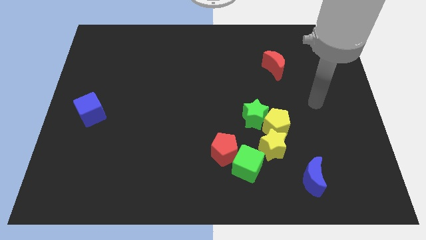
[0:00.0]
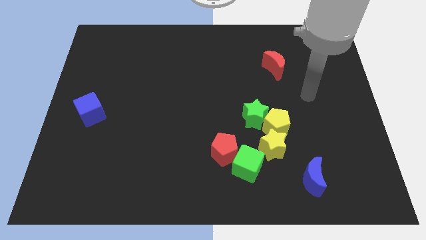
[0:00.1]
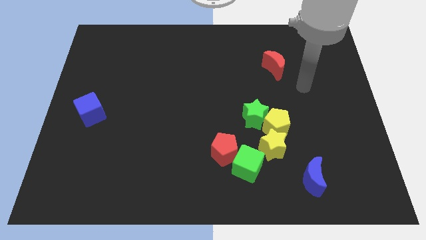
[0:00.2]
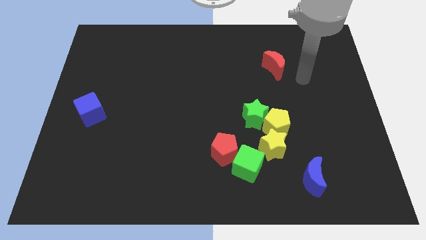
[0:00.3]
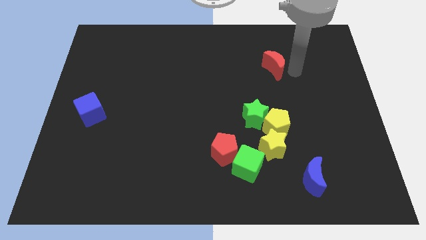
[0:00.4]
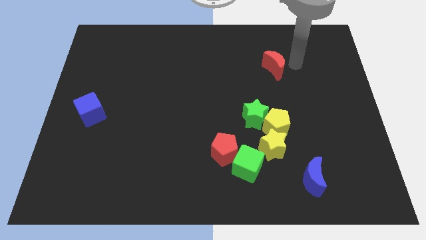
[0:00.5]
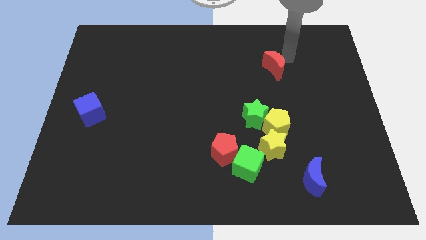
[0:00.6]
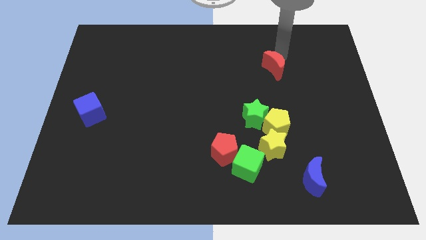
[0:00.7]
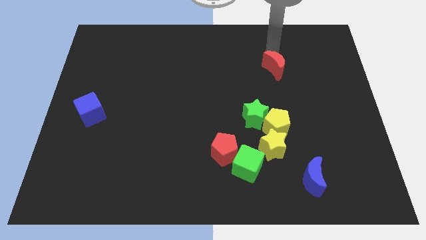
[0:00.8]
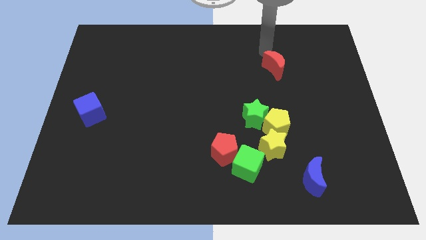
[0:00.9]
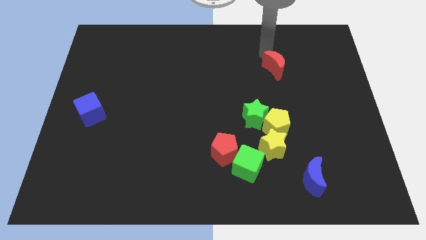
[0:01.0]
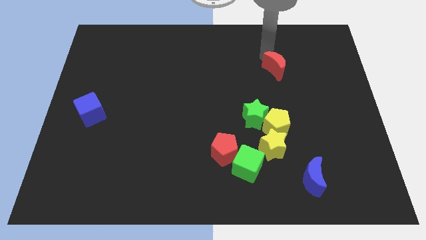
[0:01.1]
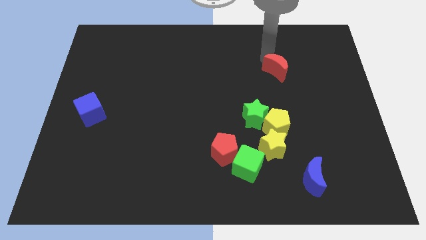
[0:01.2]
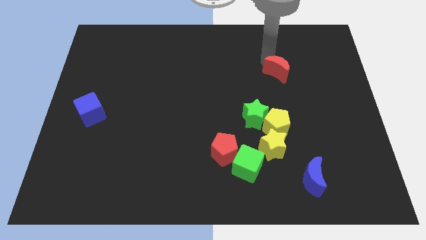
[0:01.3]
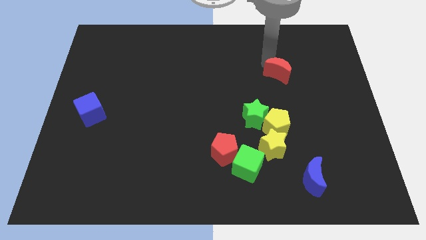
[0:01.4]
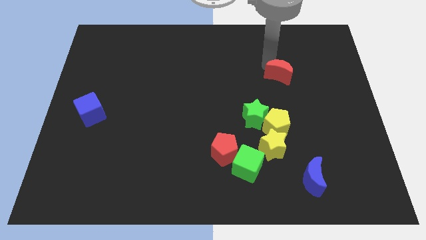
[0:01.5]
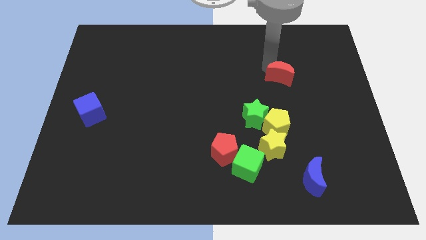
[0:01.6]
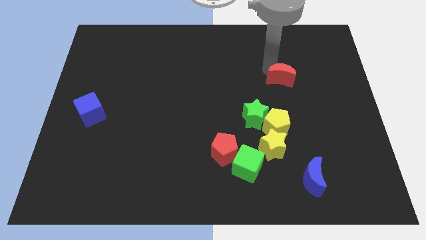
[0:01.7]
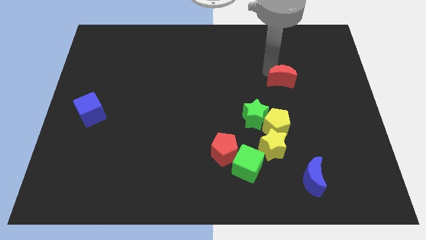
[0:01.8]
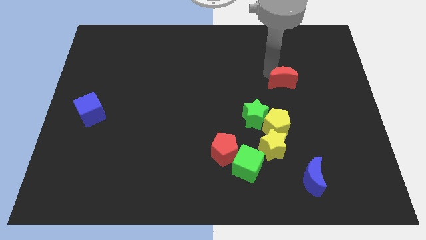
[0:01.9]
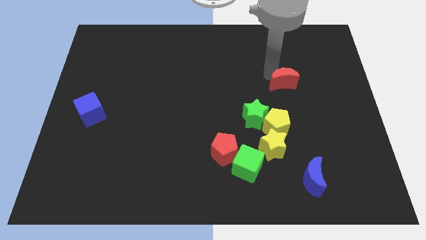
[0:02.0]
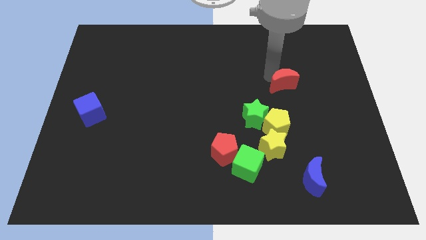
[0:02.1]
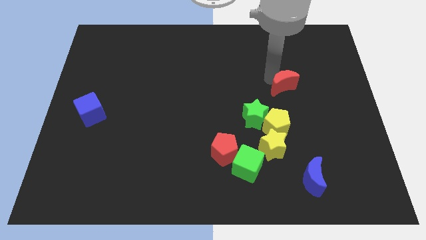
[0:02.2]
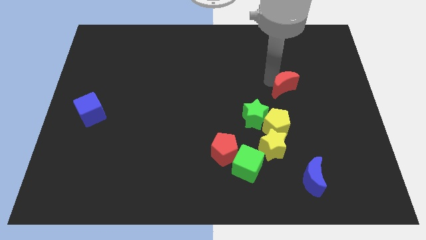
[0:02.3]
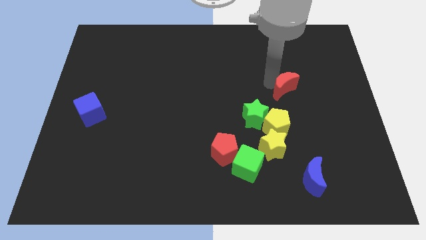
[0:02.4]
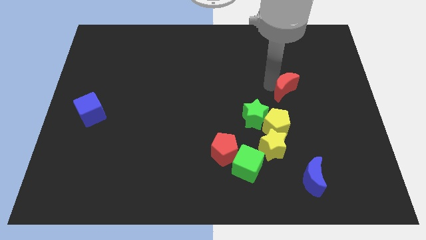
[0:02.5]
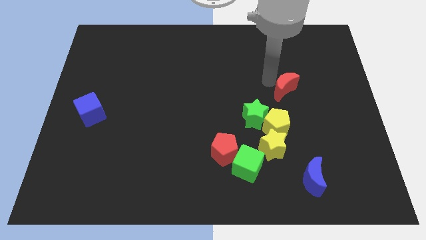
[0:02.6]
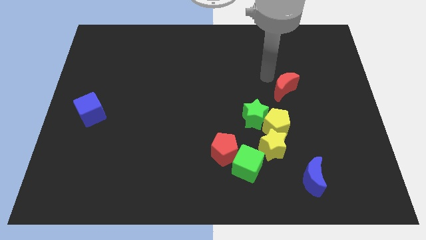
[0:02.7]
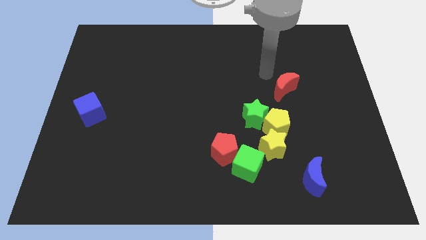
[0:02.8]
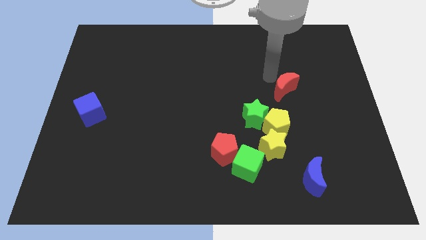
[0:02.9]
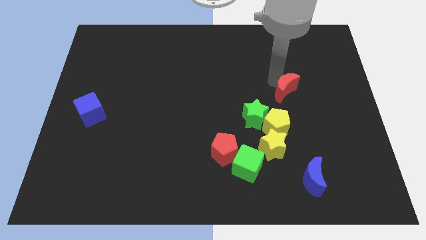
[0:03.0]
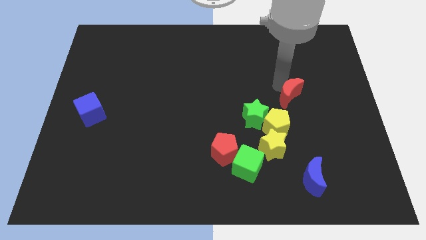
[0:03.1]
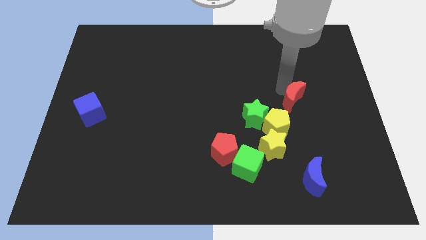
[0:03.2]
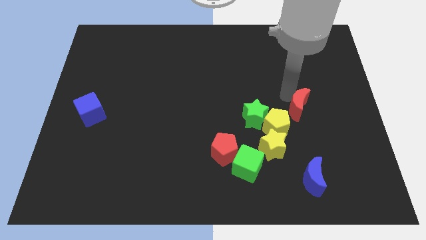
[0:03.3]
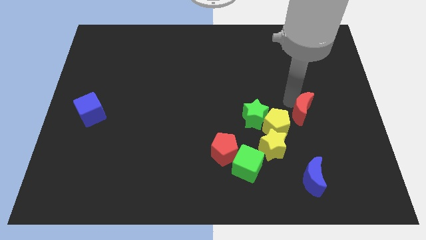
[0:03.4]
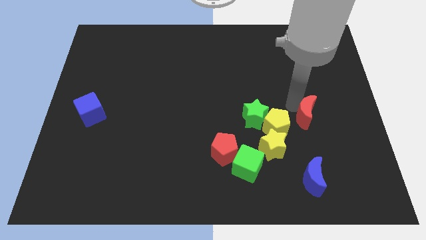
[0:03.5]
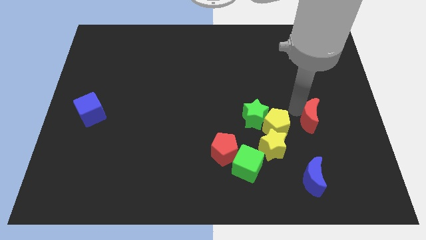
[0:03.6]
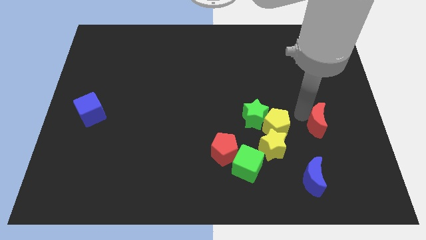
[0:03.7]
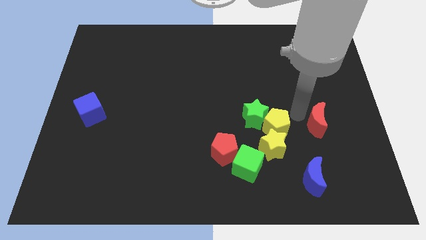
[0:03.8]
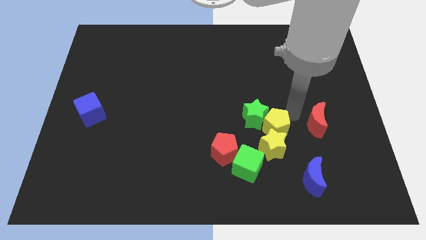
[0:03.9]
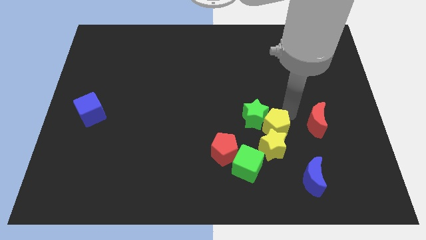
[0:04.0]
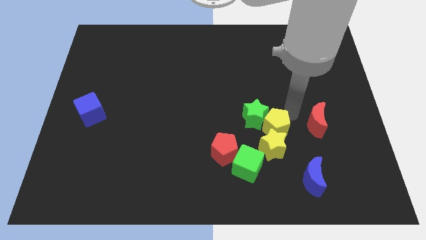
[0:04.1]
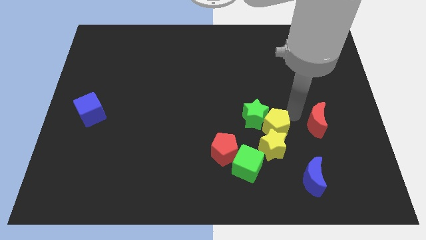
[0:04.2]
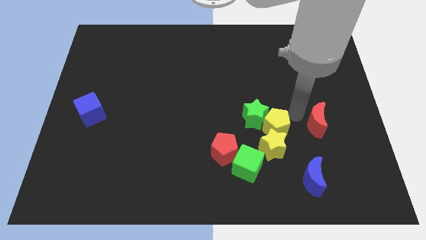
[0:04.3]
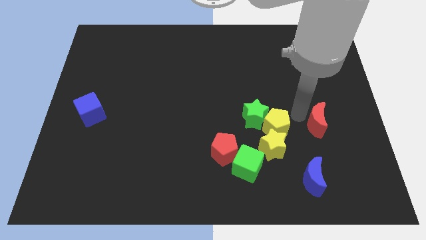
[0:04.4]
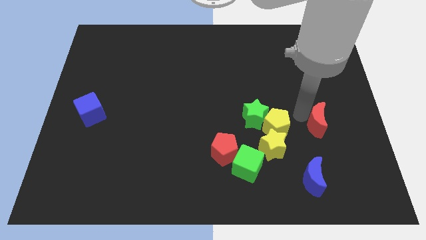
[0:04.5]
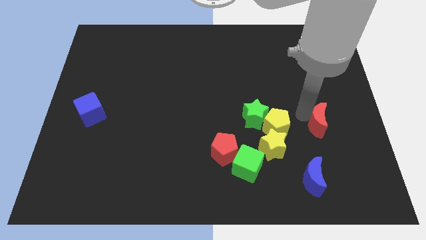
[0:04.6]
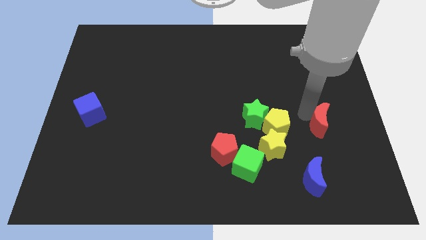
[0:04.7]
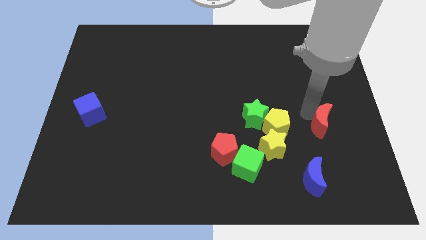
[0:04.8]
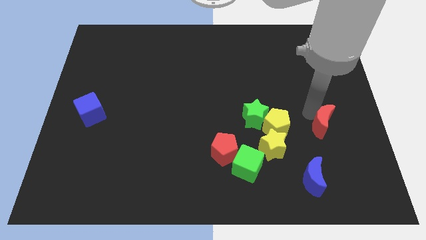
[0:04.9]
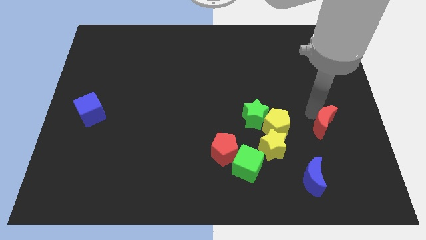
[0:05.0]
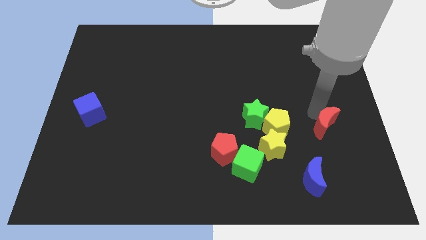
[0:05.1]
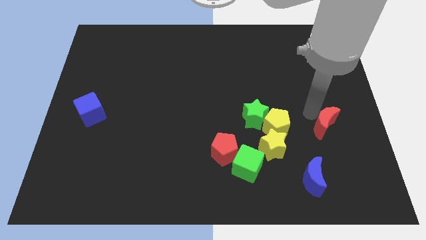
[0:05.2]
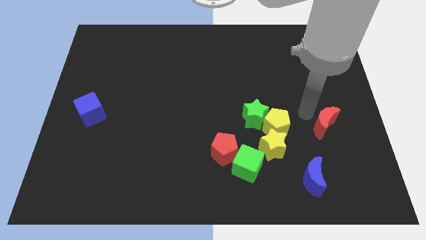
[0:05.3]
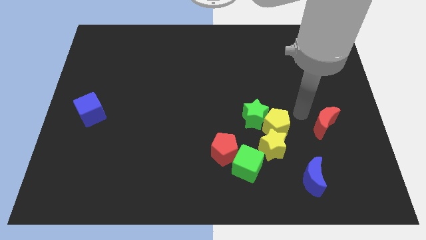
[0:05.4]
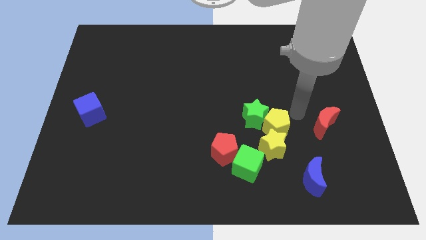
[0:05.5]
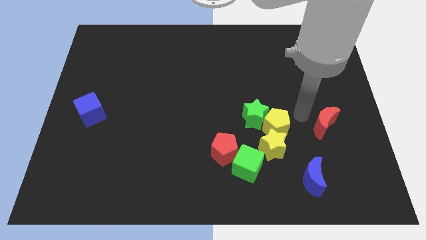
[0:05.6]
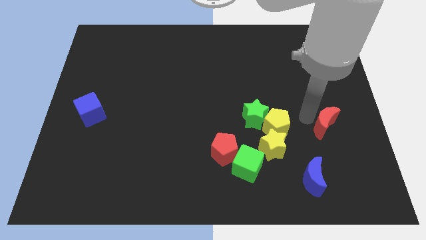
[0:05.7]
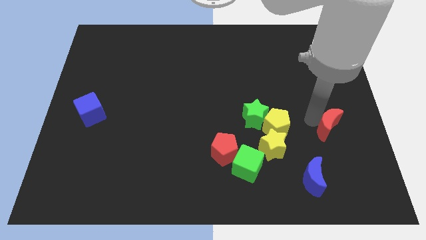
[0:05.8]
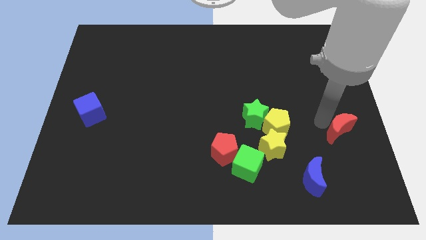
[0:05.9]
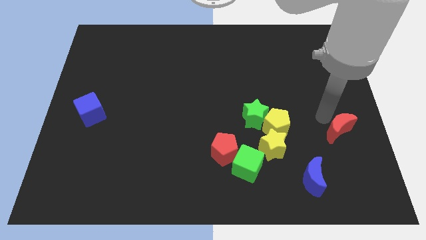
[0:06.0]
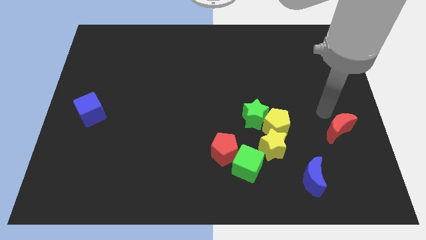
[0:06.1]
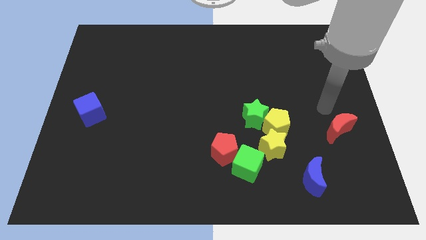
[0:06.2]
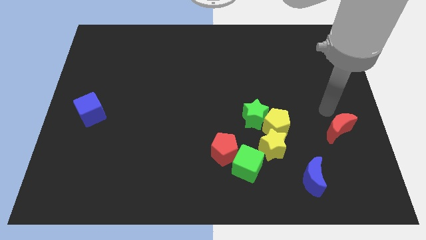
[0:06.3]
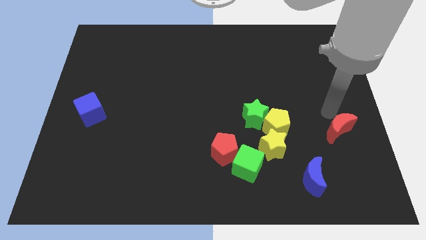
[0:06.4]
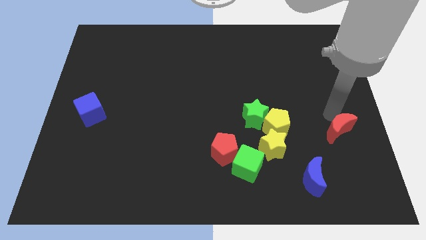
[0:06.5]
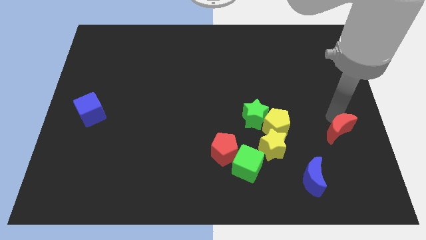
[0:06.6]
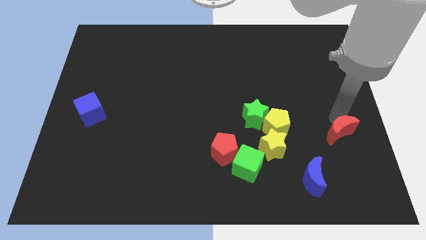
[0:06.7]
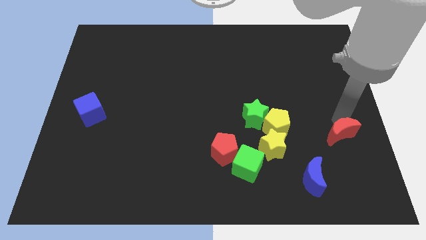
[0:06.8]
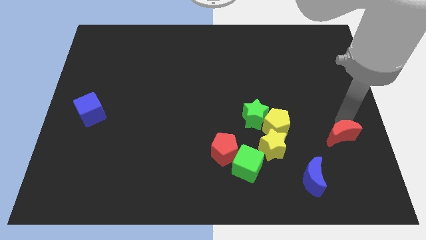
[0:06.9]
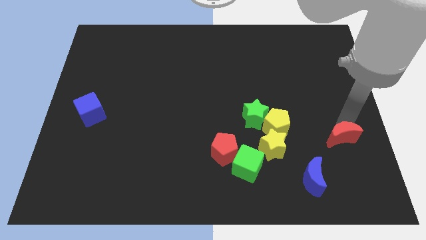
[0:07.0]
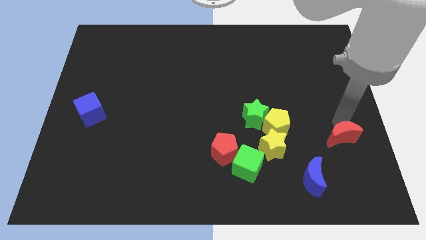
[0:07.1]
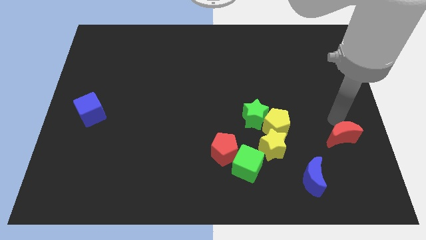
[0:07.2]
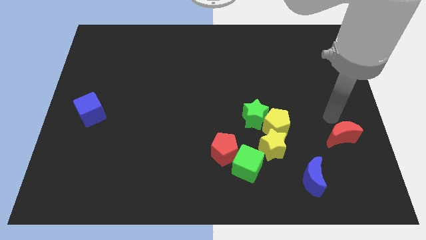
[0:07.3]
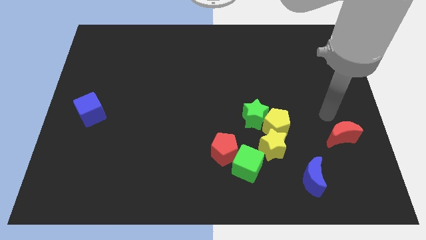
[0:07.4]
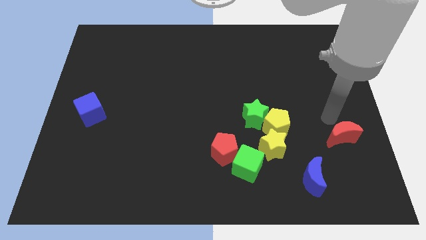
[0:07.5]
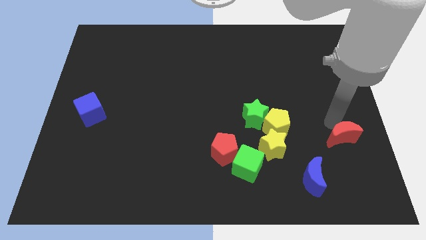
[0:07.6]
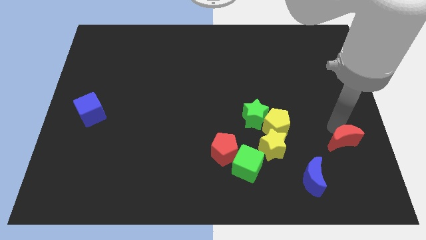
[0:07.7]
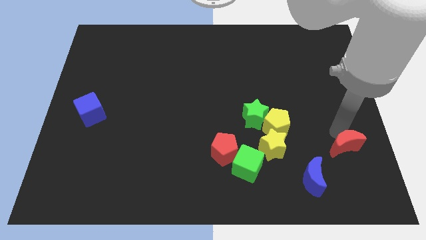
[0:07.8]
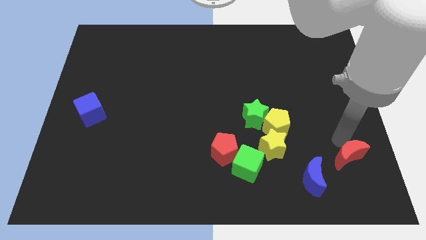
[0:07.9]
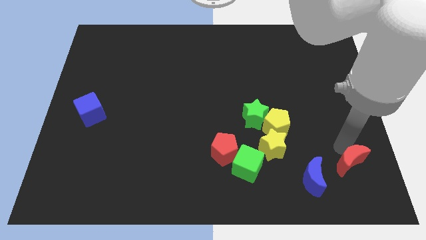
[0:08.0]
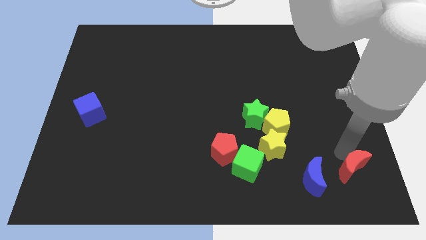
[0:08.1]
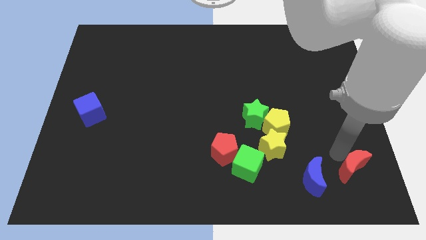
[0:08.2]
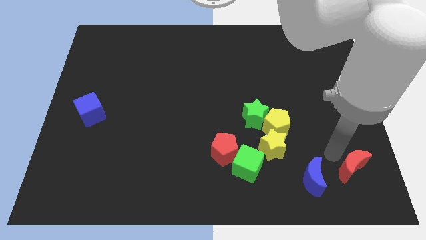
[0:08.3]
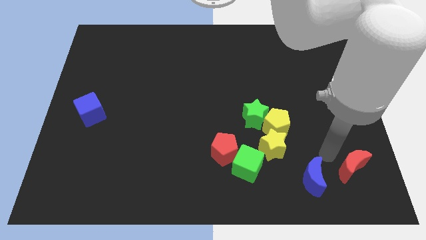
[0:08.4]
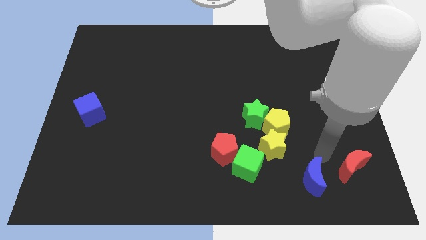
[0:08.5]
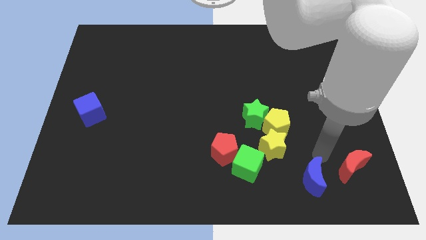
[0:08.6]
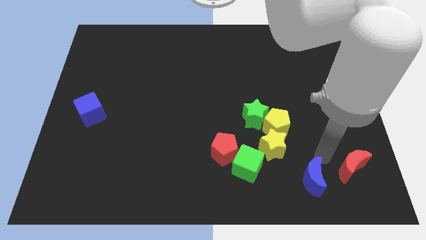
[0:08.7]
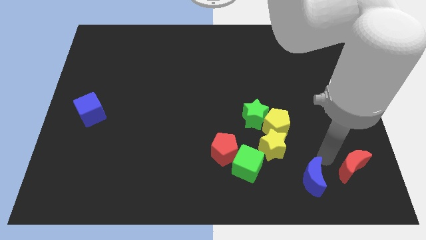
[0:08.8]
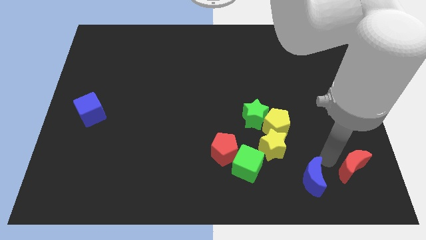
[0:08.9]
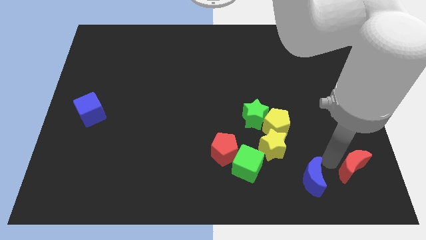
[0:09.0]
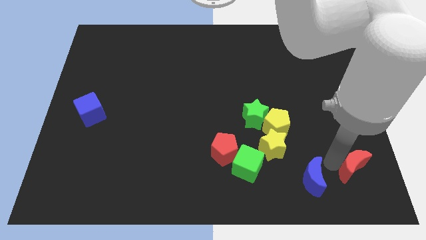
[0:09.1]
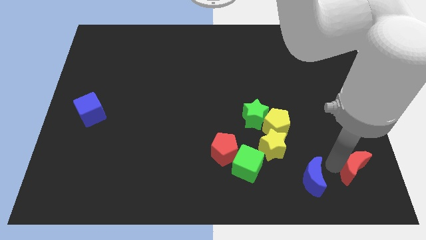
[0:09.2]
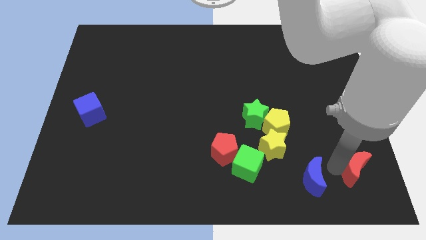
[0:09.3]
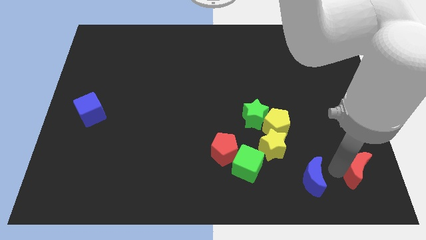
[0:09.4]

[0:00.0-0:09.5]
slide the red moon to the bottom right corner
